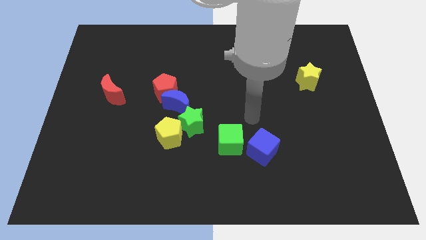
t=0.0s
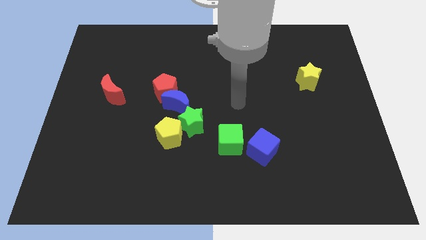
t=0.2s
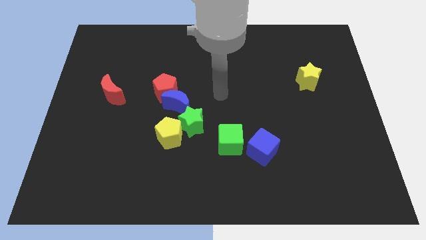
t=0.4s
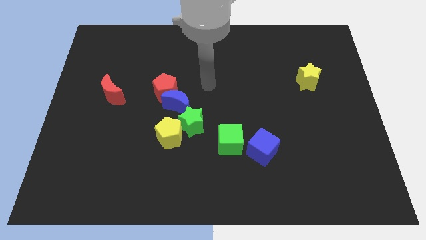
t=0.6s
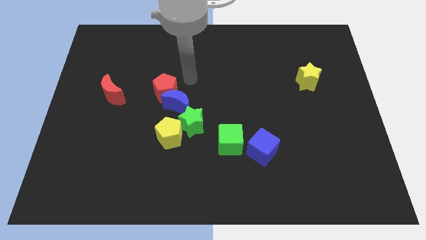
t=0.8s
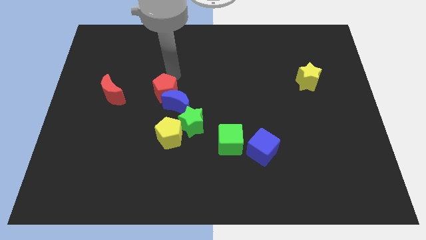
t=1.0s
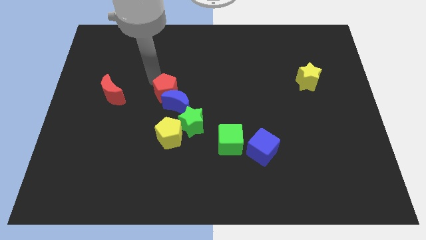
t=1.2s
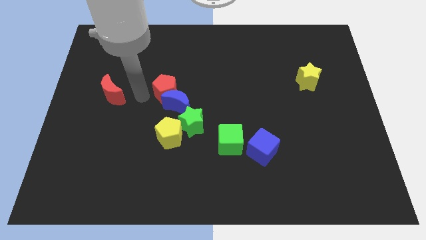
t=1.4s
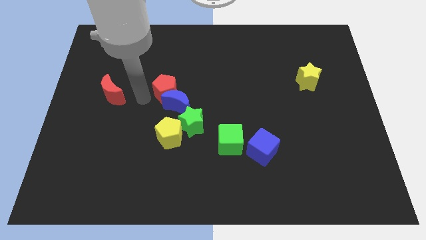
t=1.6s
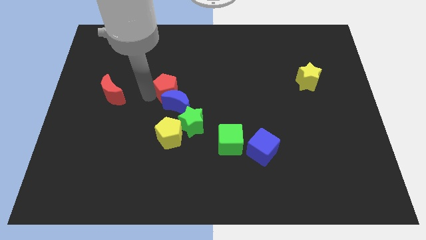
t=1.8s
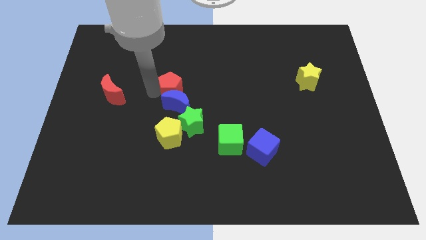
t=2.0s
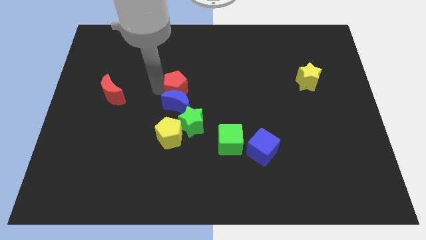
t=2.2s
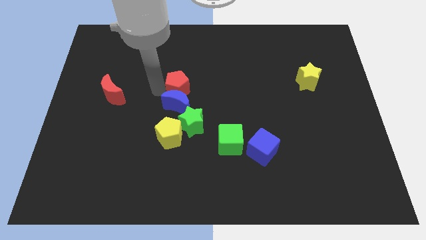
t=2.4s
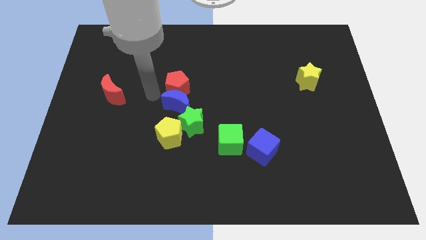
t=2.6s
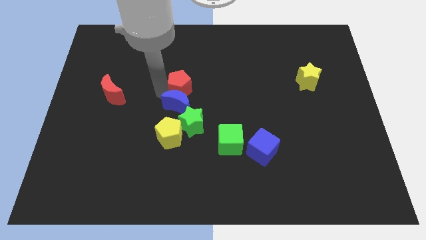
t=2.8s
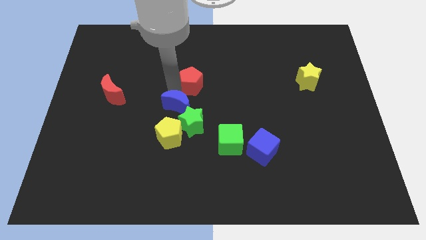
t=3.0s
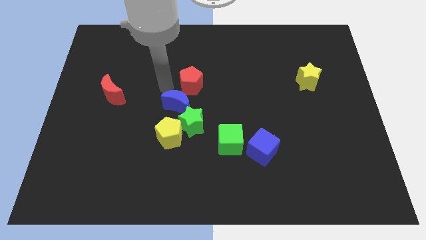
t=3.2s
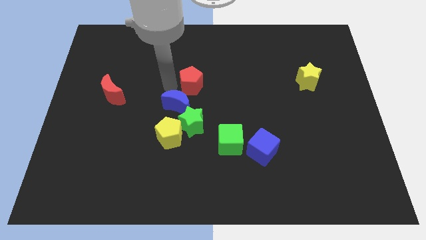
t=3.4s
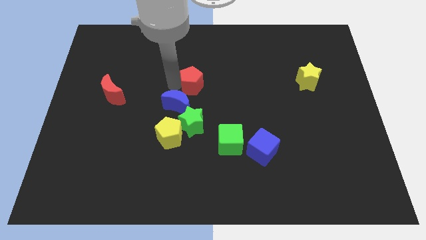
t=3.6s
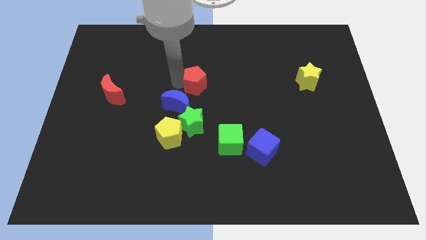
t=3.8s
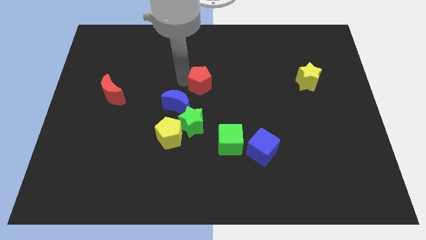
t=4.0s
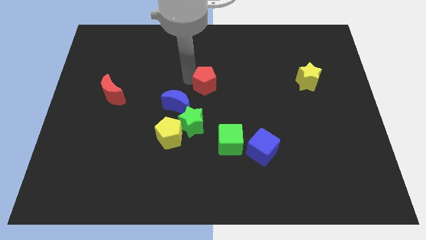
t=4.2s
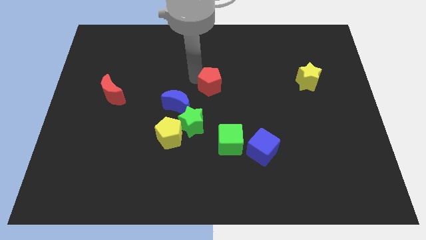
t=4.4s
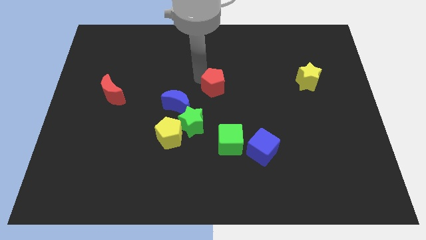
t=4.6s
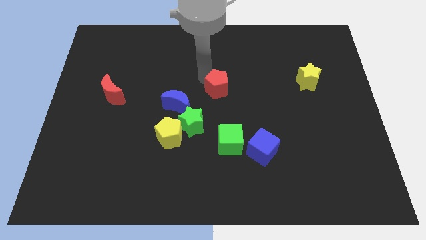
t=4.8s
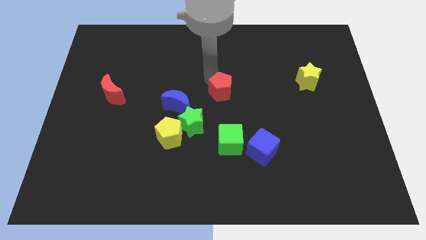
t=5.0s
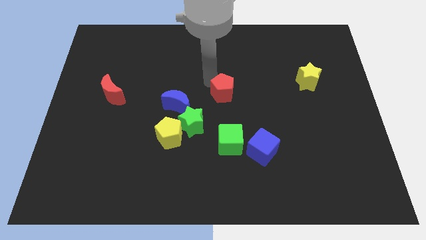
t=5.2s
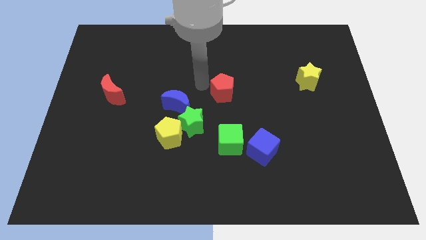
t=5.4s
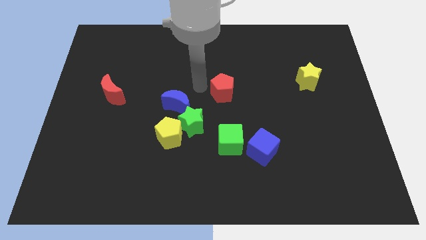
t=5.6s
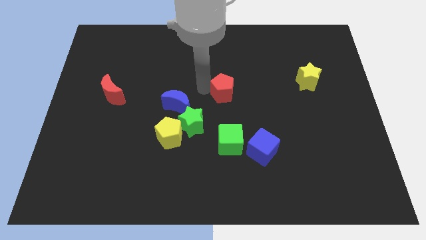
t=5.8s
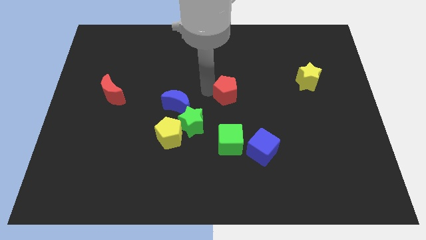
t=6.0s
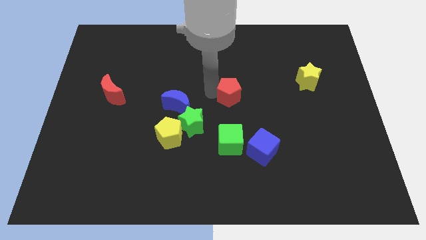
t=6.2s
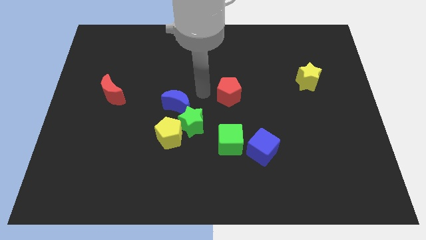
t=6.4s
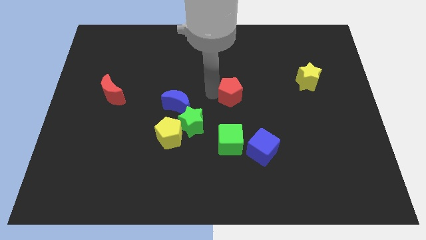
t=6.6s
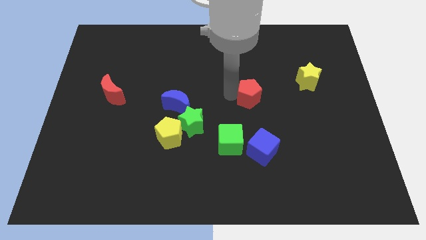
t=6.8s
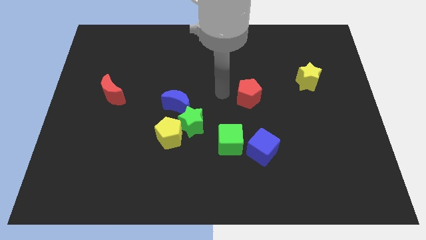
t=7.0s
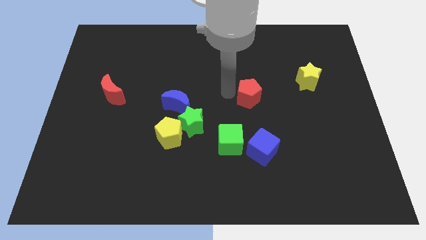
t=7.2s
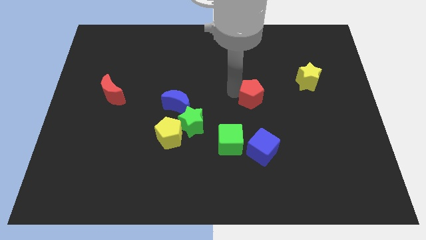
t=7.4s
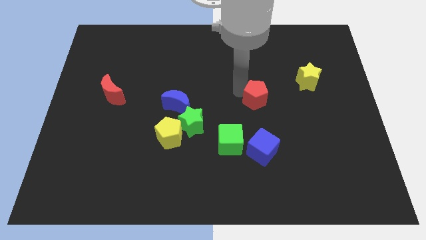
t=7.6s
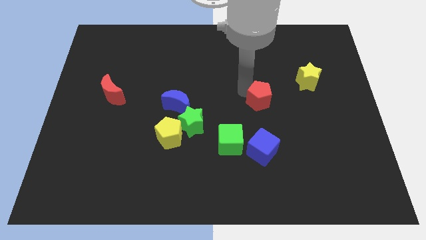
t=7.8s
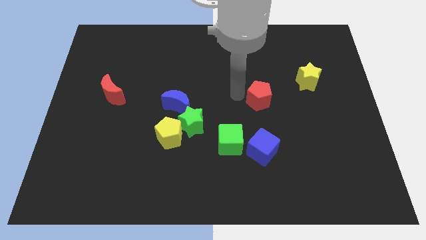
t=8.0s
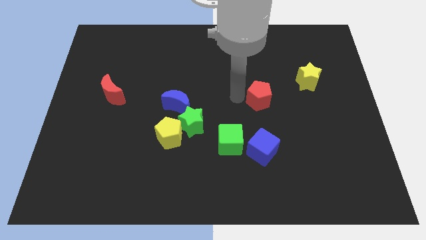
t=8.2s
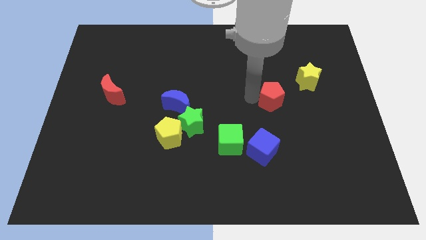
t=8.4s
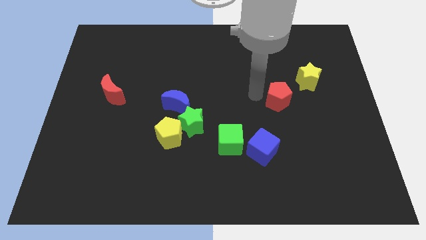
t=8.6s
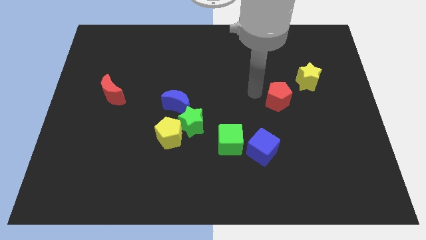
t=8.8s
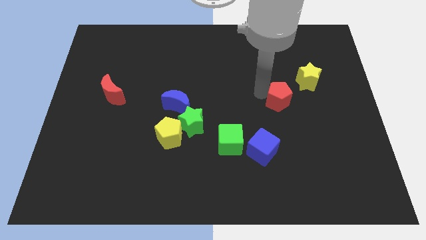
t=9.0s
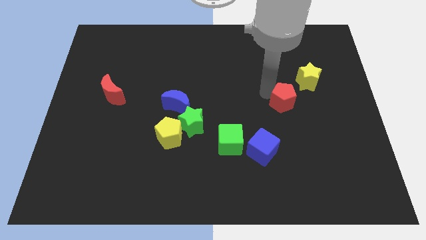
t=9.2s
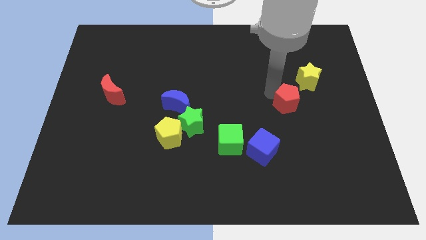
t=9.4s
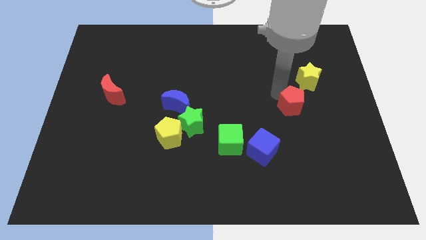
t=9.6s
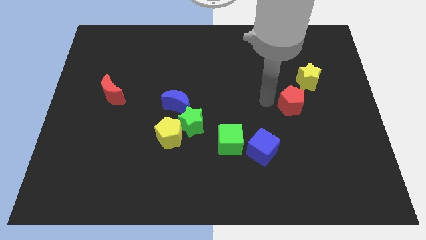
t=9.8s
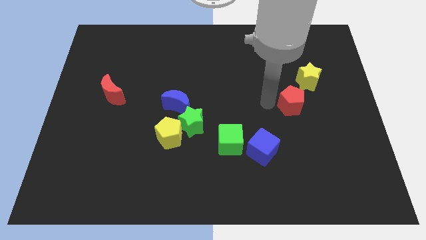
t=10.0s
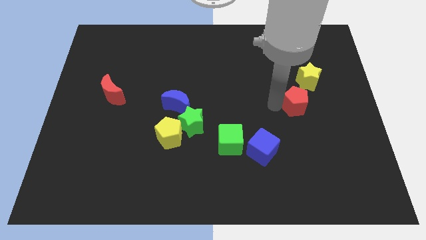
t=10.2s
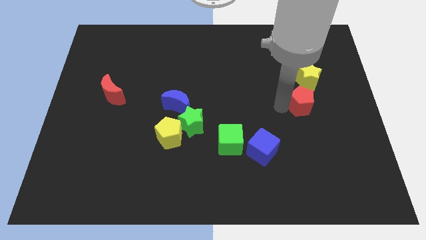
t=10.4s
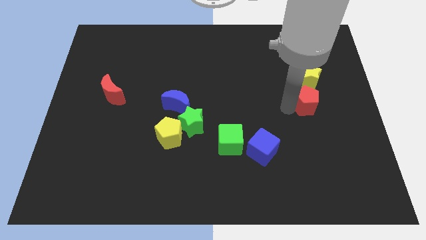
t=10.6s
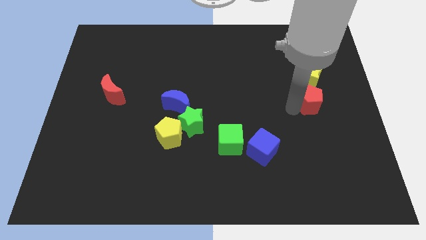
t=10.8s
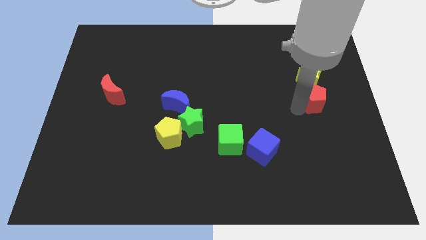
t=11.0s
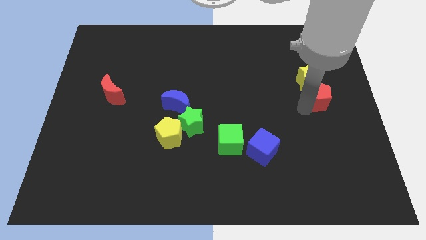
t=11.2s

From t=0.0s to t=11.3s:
move the red pentagon to the right side of the board
